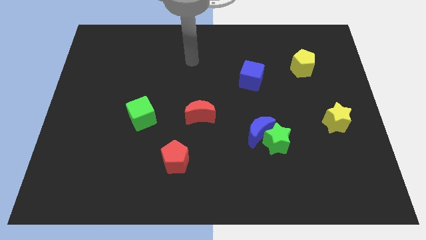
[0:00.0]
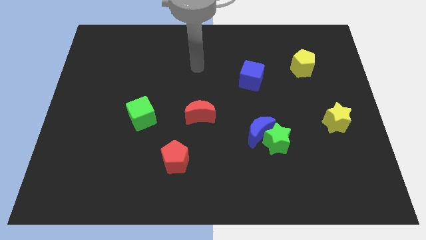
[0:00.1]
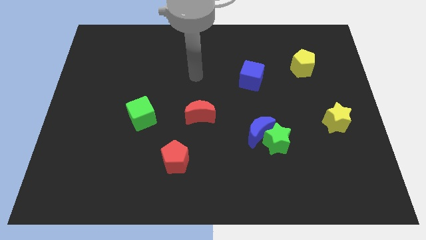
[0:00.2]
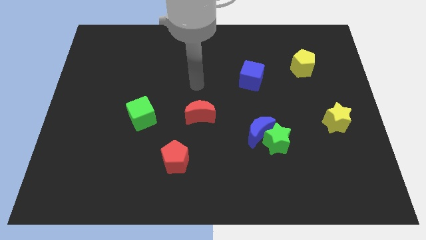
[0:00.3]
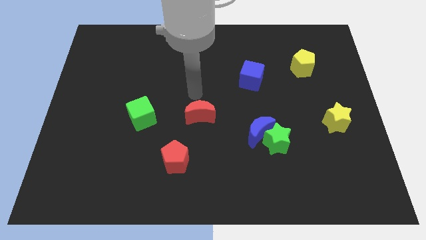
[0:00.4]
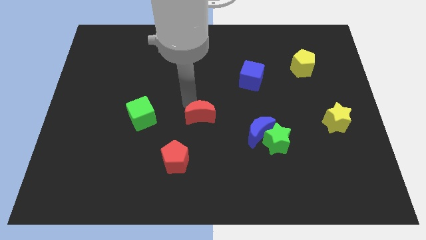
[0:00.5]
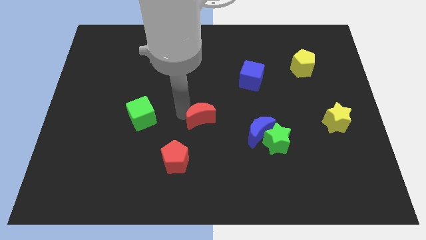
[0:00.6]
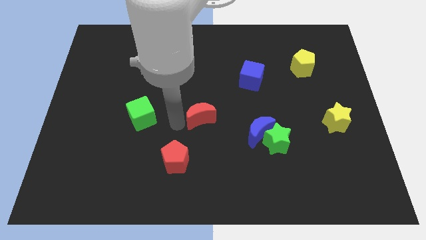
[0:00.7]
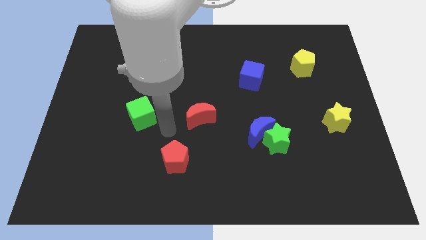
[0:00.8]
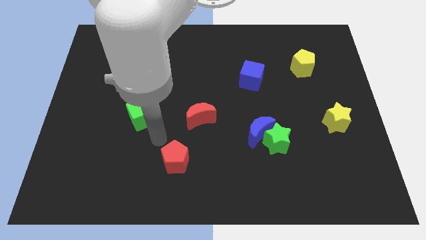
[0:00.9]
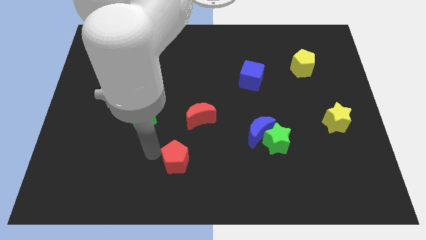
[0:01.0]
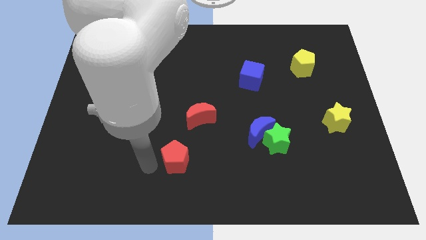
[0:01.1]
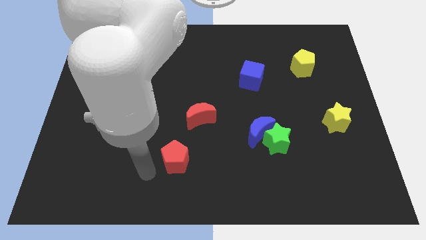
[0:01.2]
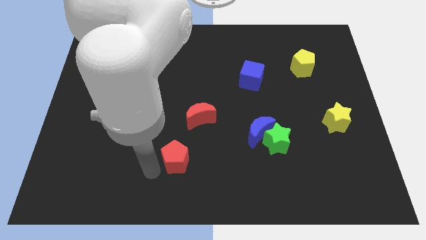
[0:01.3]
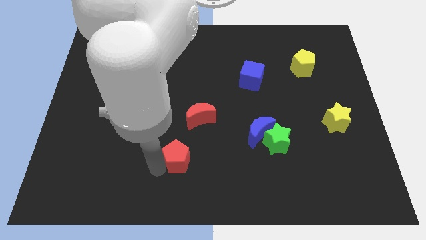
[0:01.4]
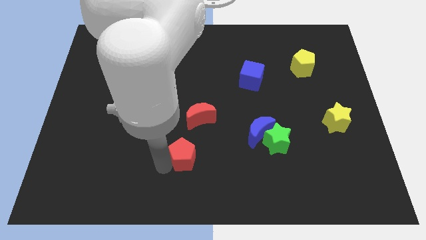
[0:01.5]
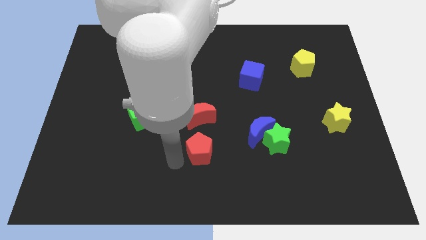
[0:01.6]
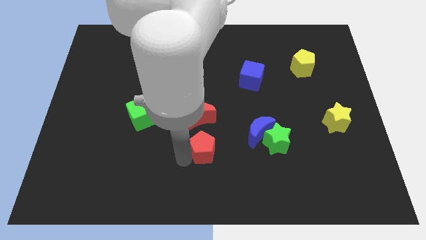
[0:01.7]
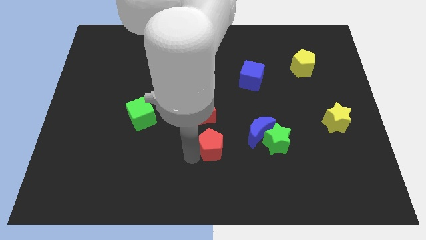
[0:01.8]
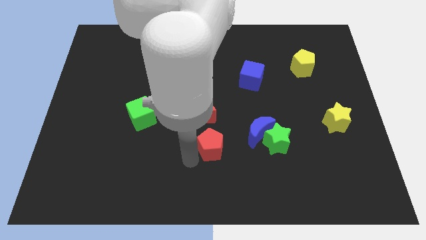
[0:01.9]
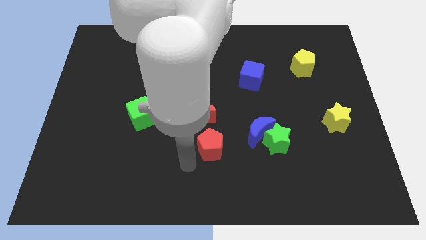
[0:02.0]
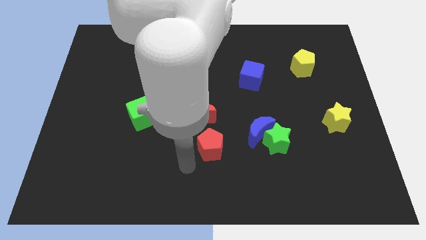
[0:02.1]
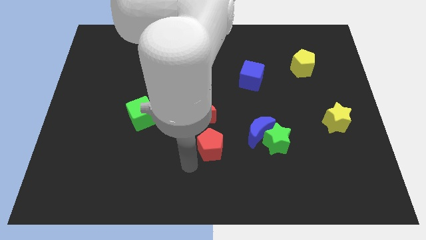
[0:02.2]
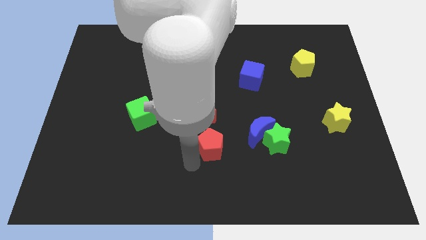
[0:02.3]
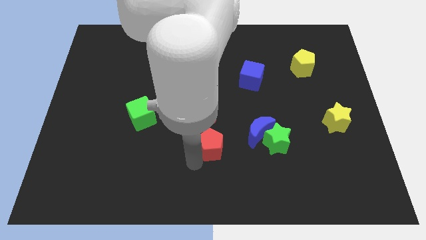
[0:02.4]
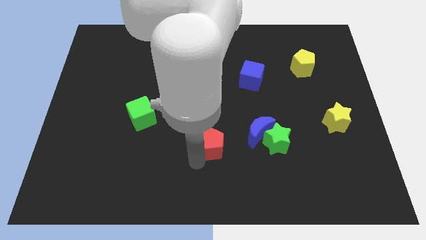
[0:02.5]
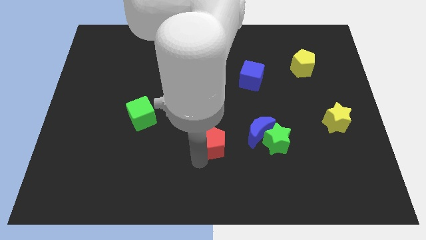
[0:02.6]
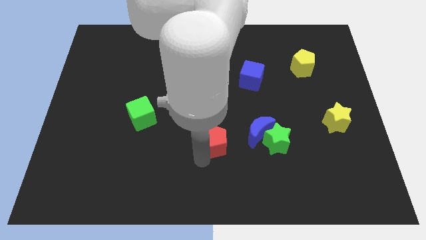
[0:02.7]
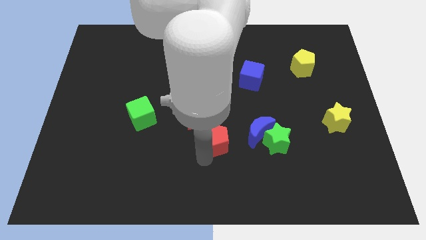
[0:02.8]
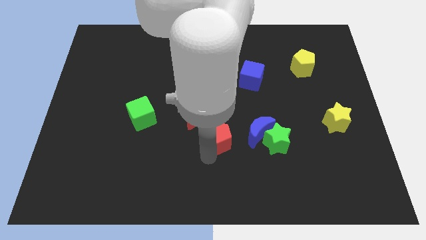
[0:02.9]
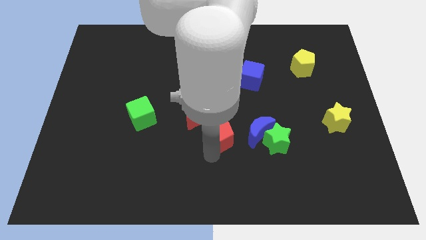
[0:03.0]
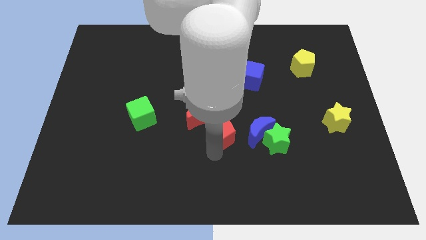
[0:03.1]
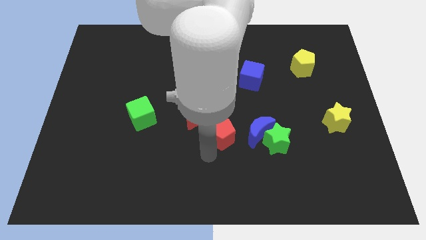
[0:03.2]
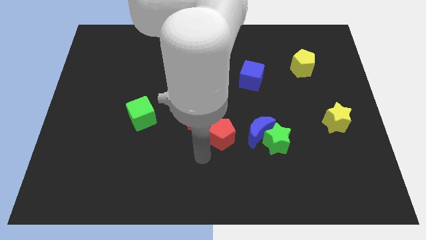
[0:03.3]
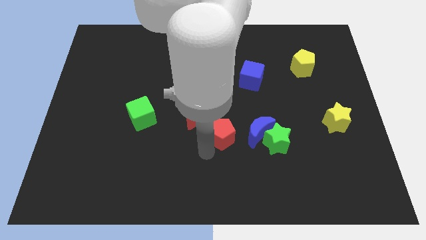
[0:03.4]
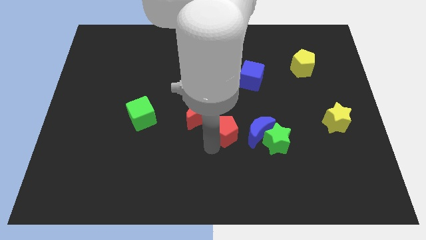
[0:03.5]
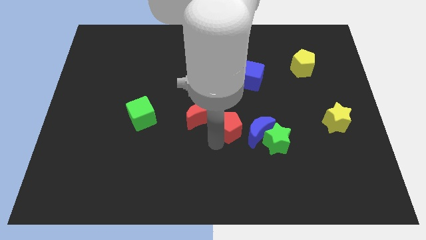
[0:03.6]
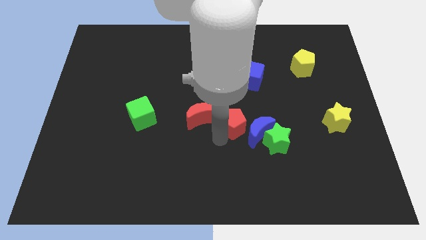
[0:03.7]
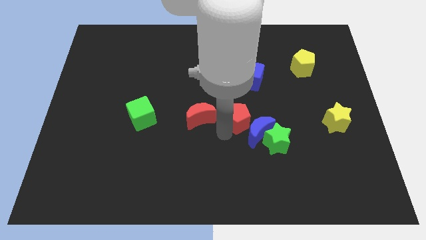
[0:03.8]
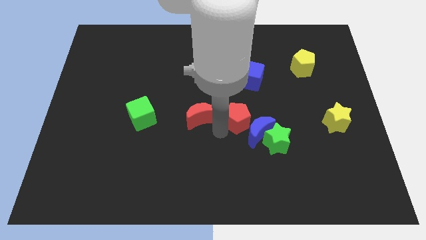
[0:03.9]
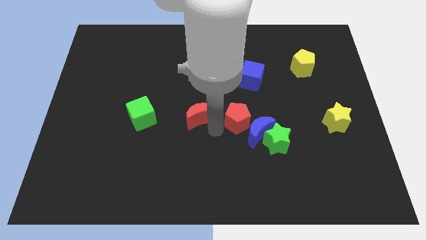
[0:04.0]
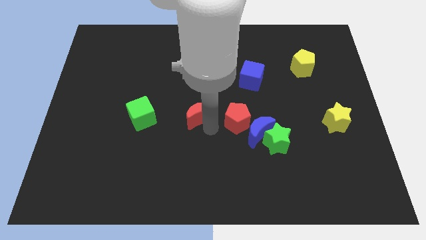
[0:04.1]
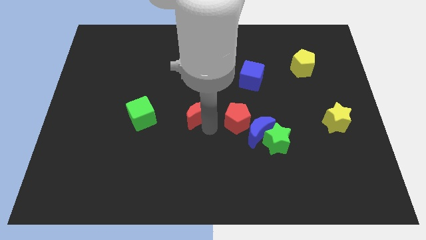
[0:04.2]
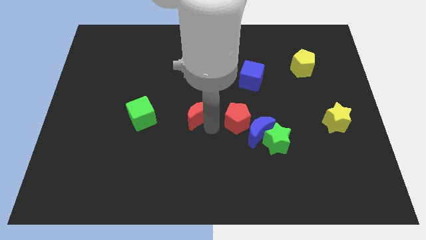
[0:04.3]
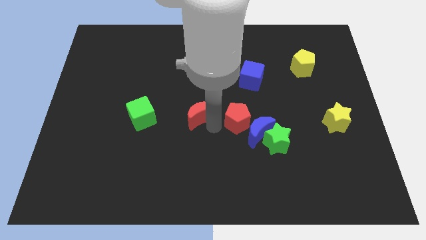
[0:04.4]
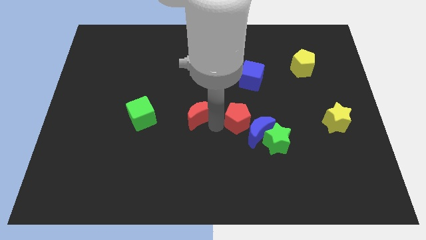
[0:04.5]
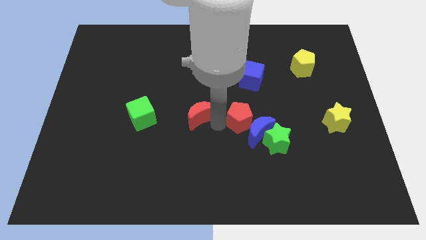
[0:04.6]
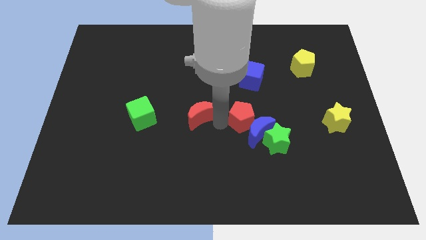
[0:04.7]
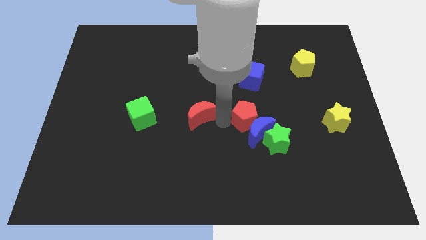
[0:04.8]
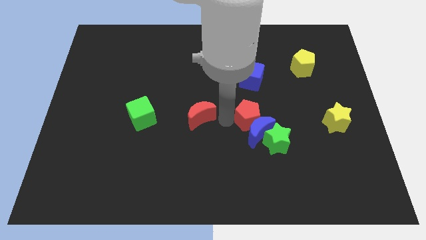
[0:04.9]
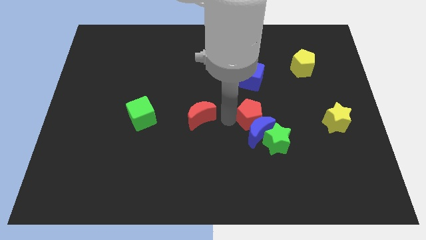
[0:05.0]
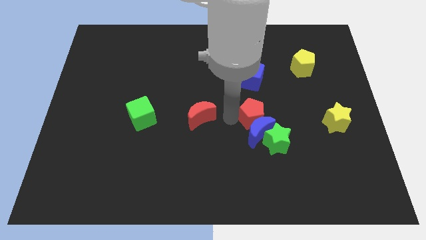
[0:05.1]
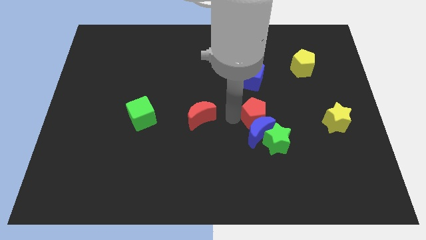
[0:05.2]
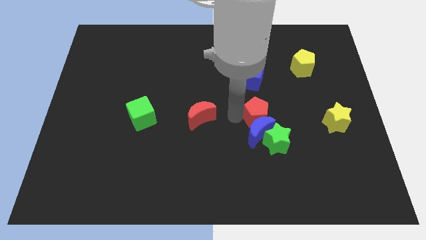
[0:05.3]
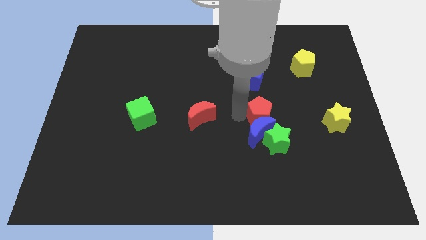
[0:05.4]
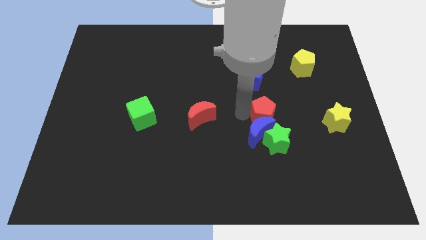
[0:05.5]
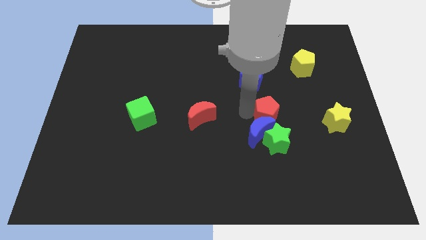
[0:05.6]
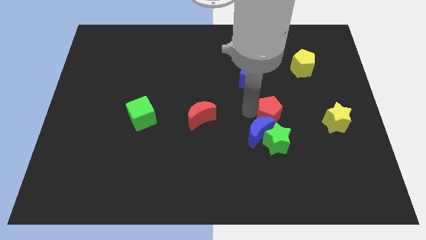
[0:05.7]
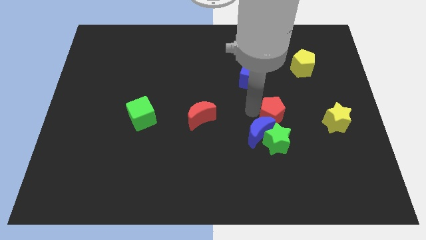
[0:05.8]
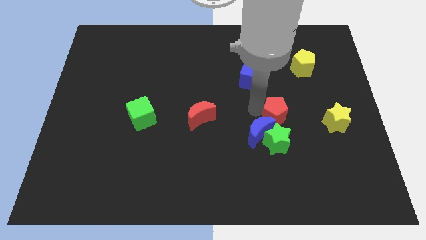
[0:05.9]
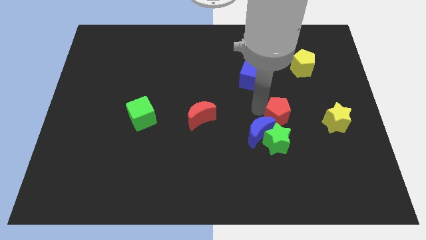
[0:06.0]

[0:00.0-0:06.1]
put the red pentagon diagonally up and to the right of the green star

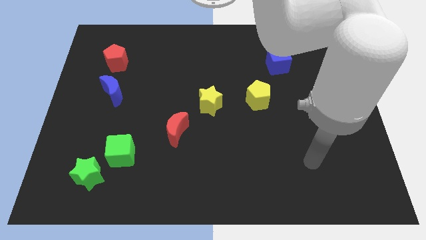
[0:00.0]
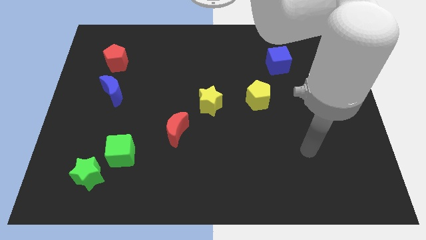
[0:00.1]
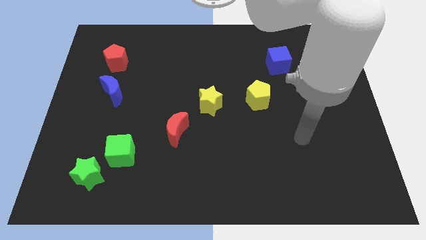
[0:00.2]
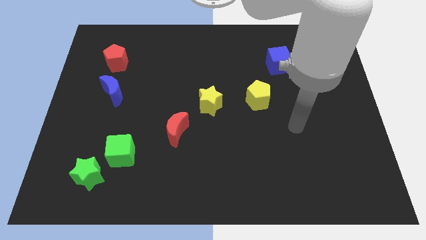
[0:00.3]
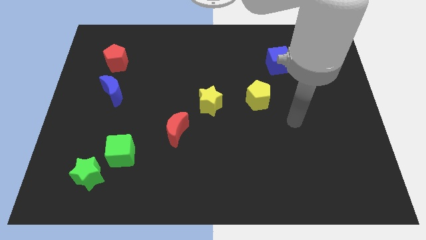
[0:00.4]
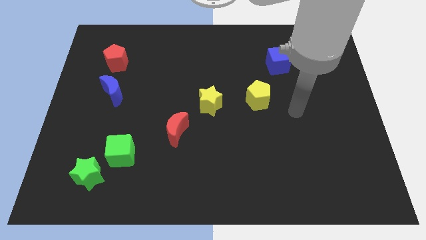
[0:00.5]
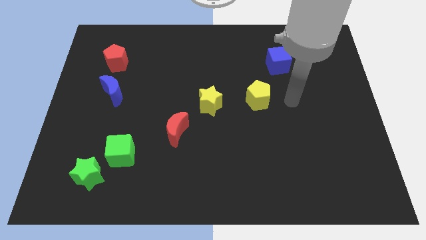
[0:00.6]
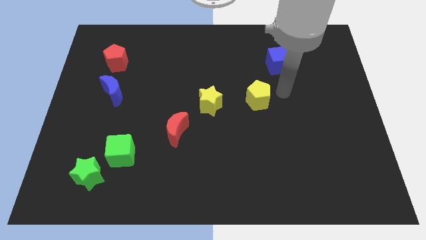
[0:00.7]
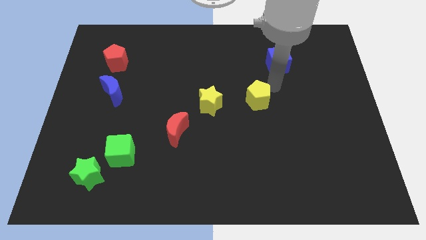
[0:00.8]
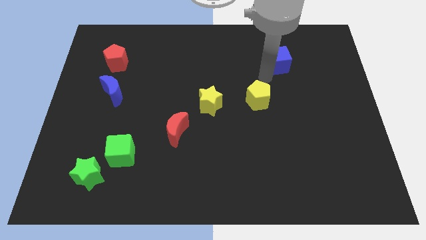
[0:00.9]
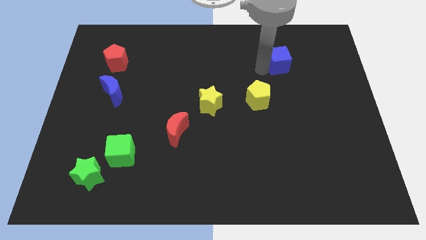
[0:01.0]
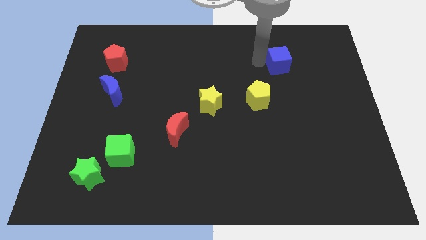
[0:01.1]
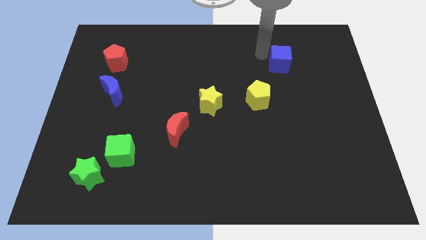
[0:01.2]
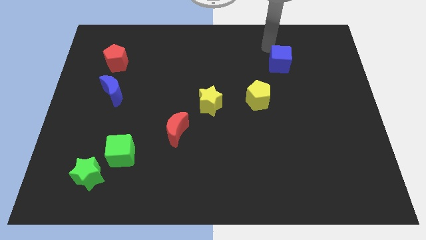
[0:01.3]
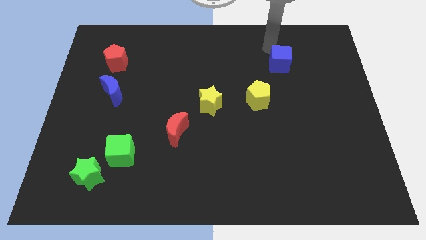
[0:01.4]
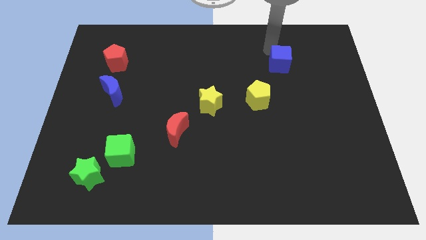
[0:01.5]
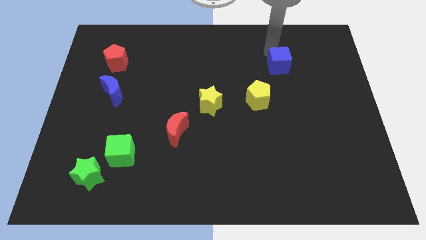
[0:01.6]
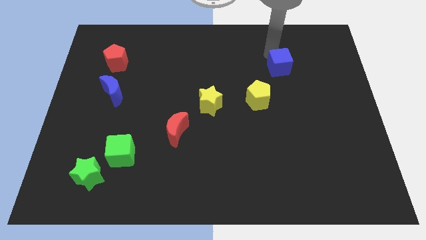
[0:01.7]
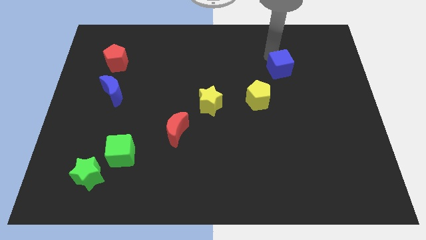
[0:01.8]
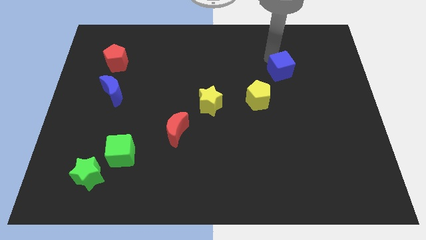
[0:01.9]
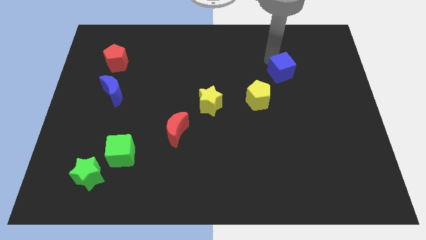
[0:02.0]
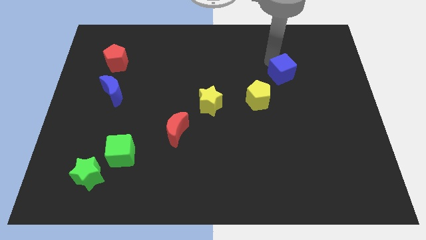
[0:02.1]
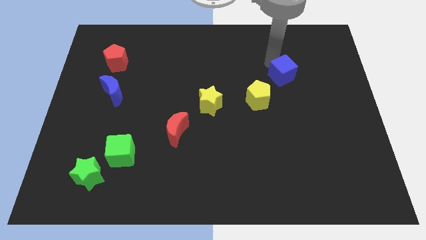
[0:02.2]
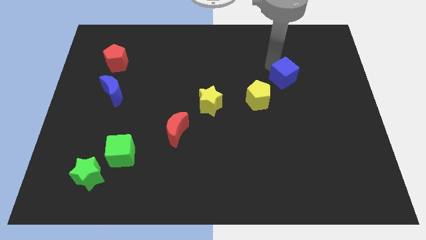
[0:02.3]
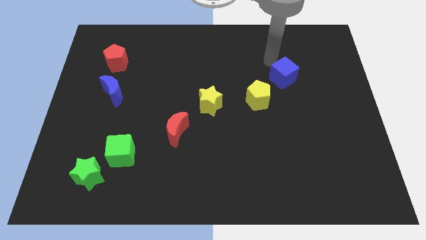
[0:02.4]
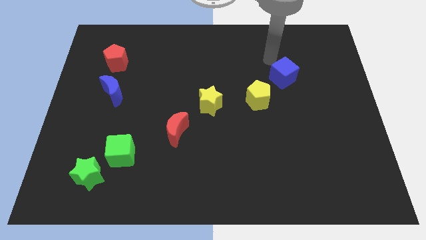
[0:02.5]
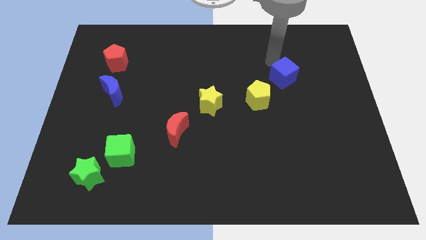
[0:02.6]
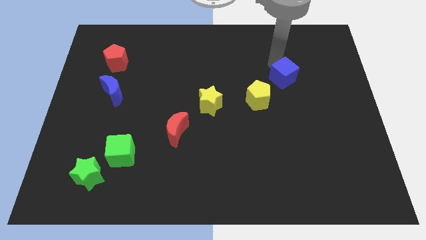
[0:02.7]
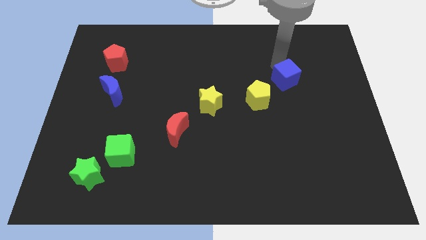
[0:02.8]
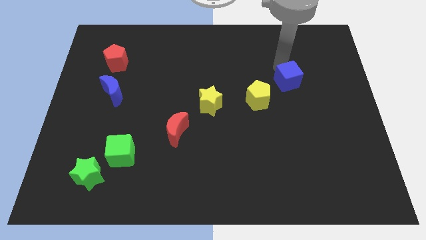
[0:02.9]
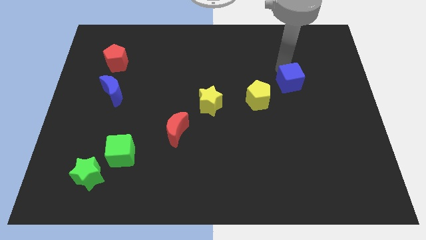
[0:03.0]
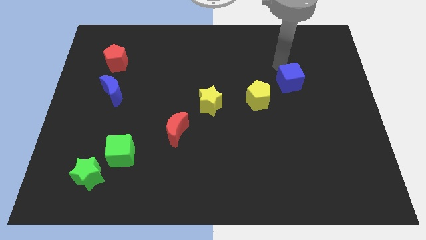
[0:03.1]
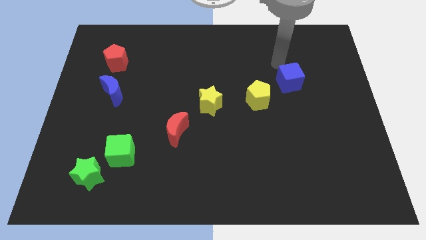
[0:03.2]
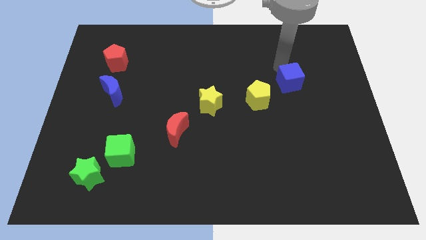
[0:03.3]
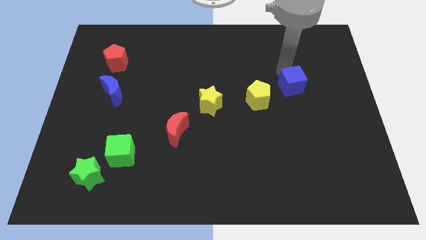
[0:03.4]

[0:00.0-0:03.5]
put the blue cube just right of the yellow pentagon
